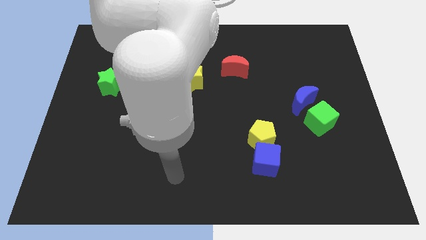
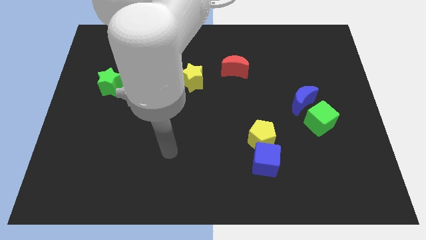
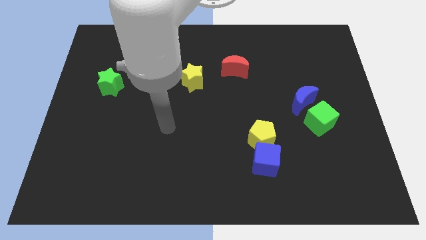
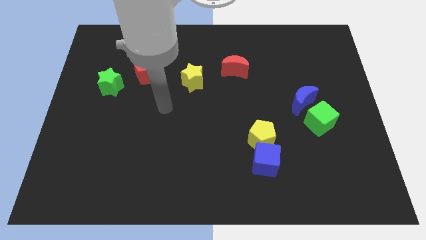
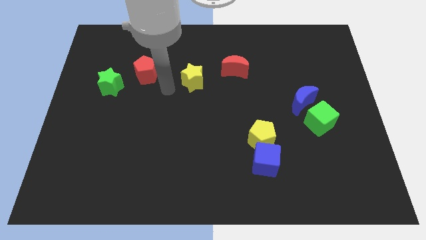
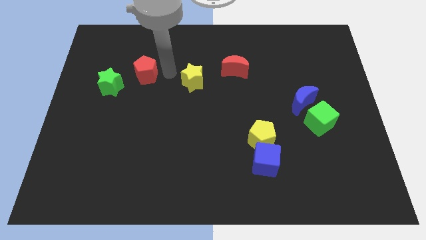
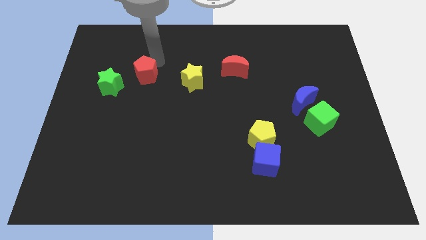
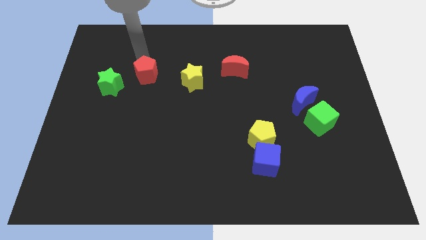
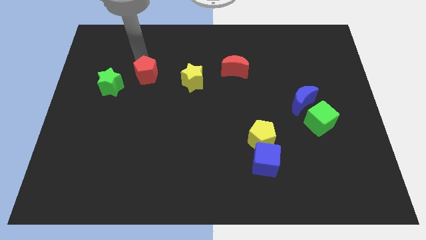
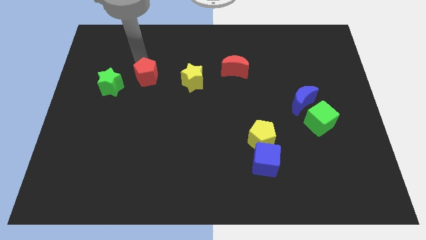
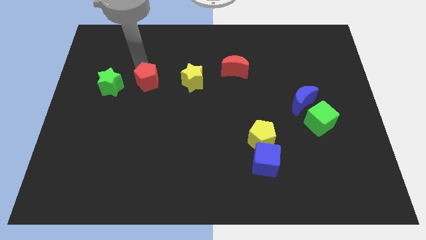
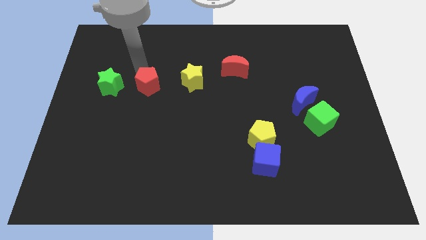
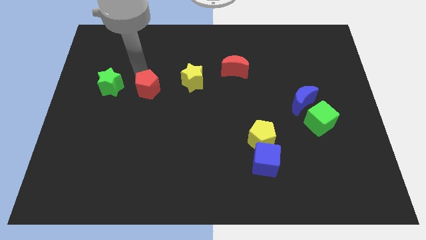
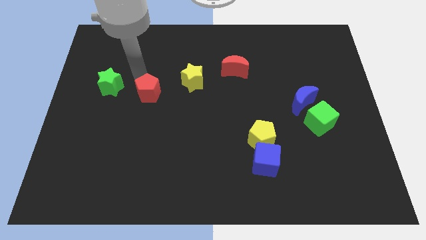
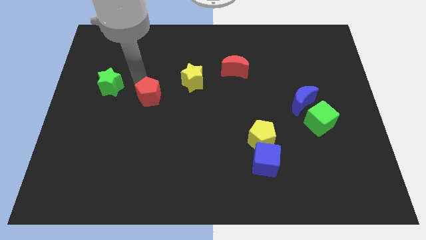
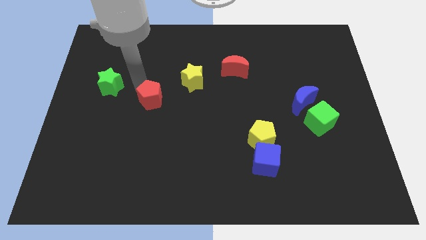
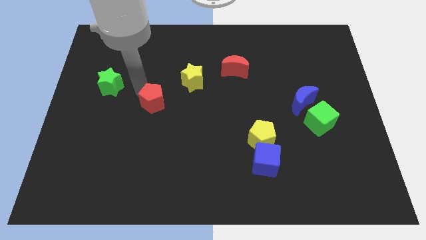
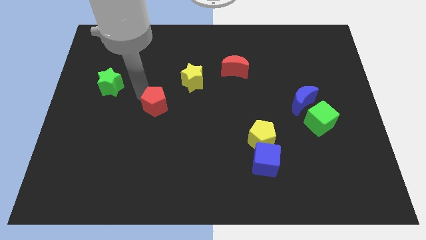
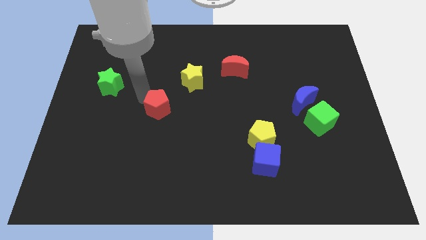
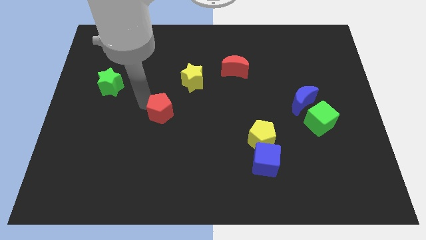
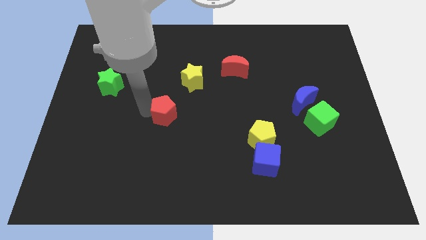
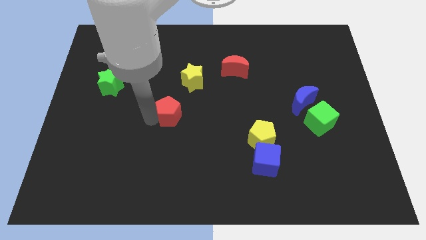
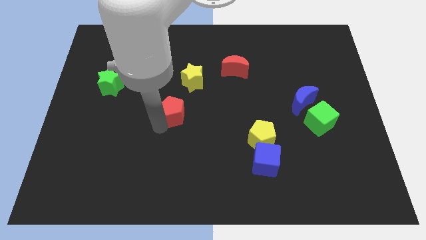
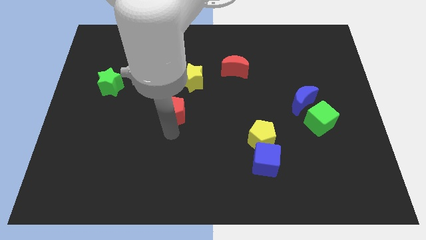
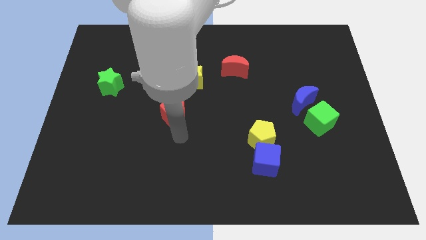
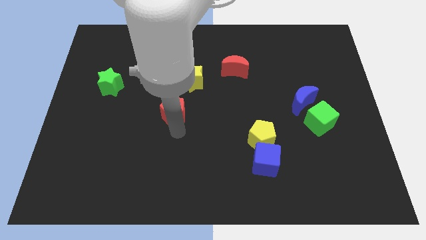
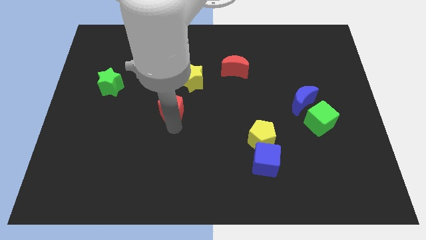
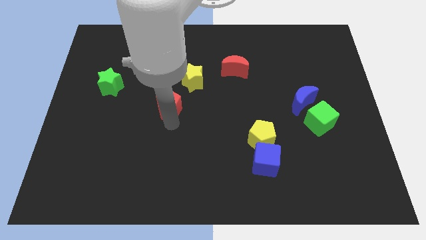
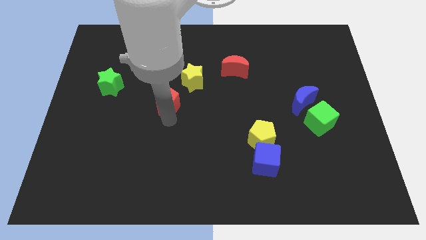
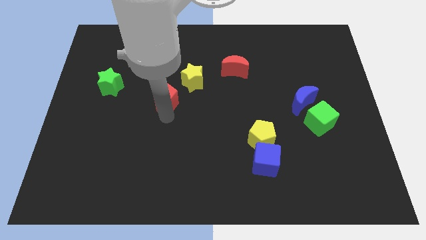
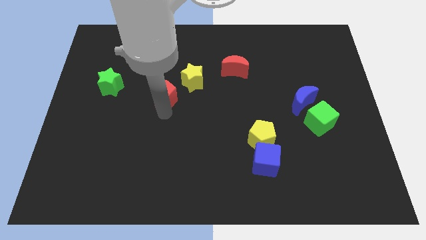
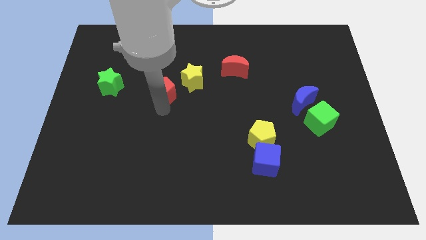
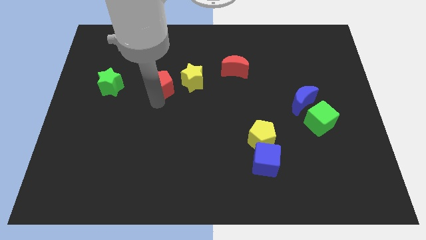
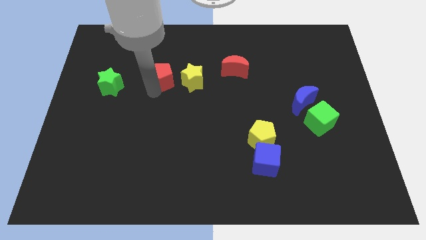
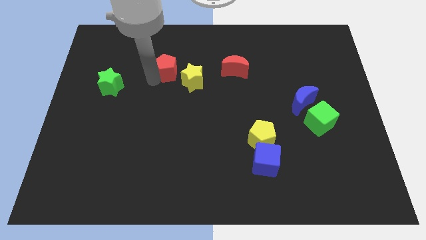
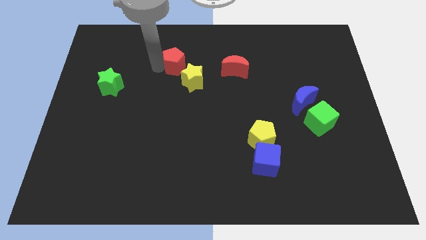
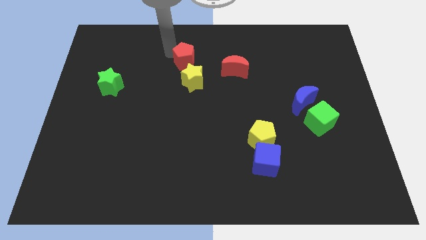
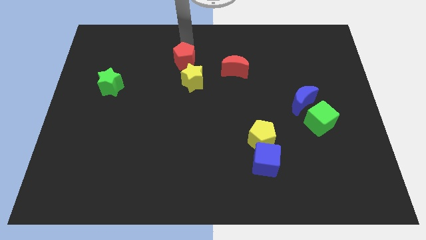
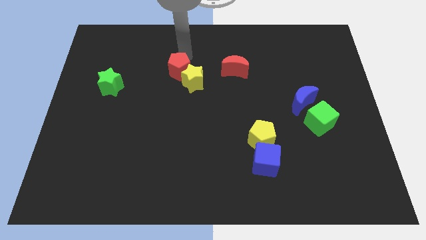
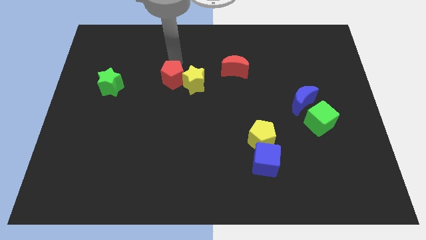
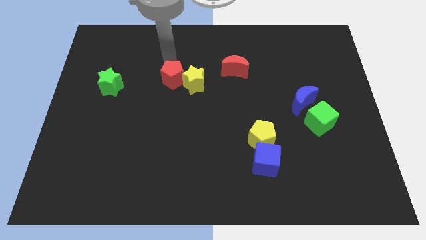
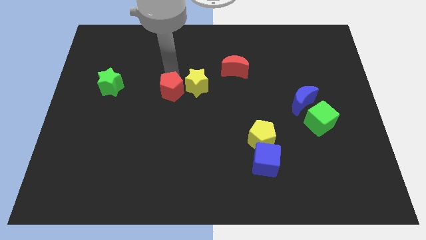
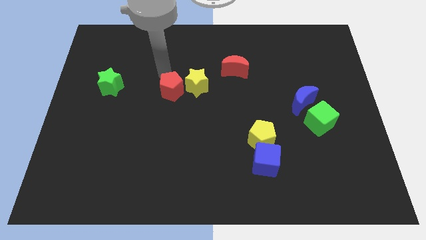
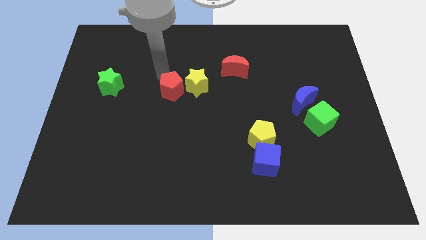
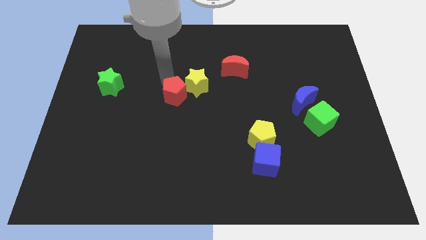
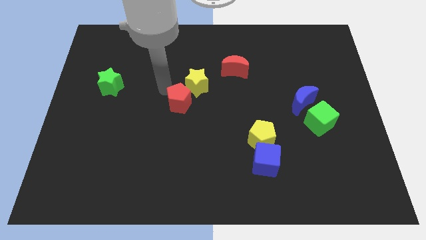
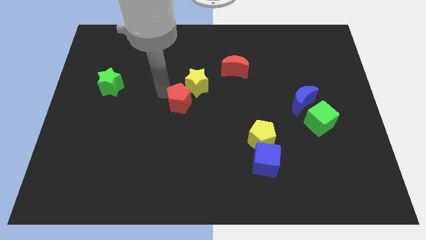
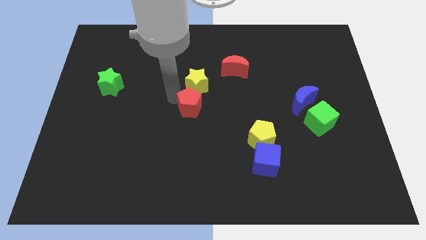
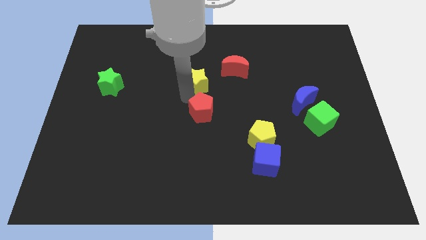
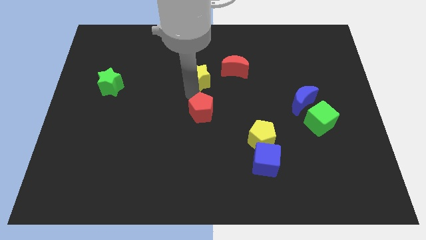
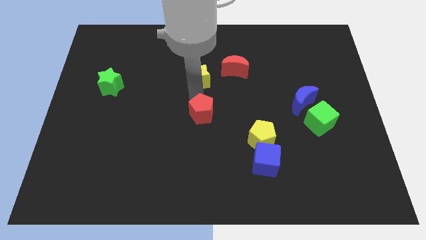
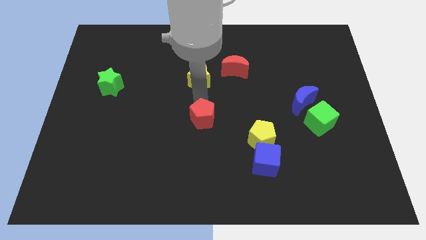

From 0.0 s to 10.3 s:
push the red pentagon down and to the right diagonally

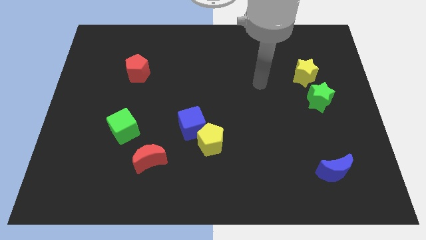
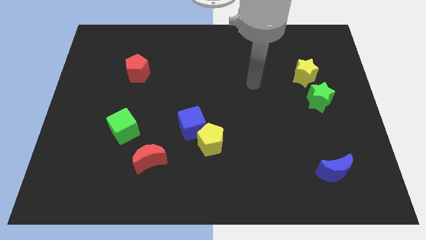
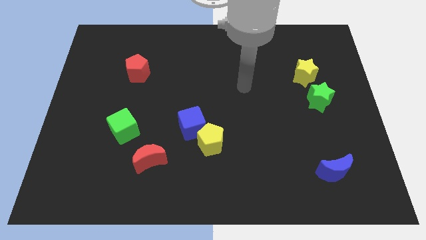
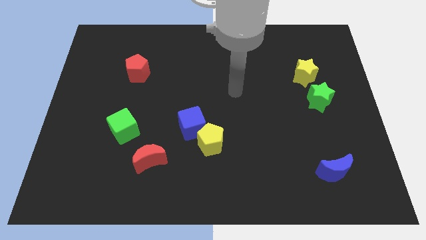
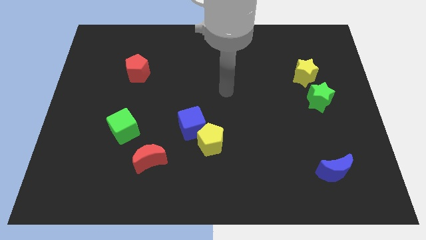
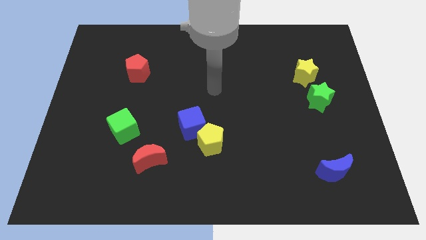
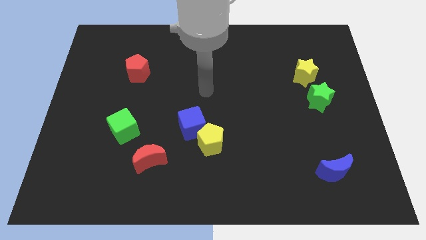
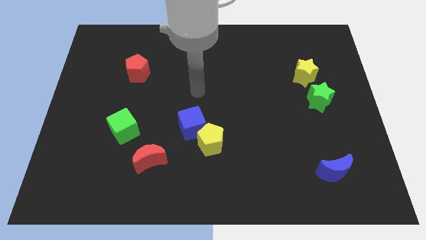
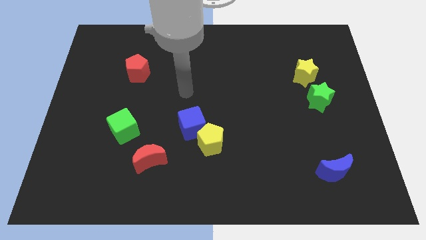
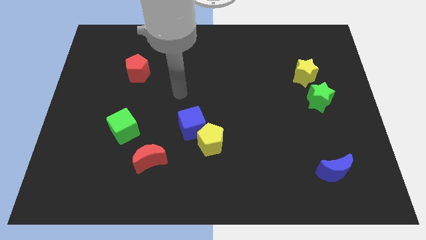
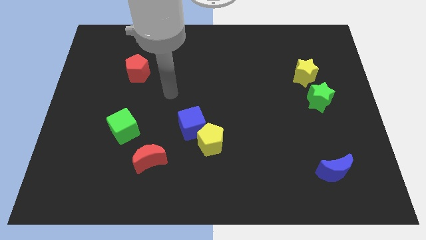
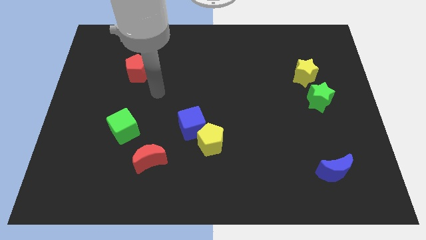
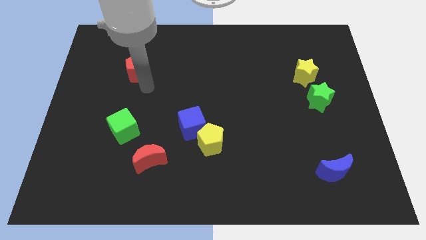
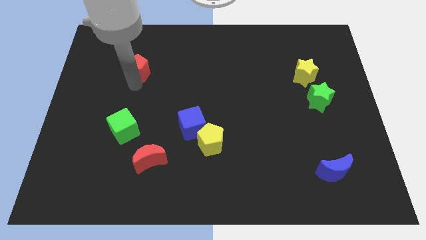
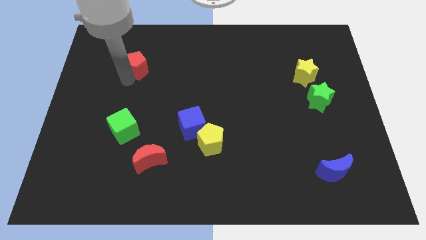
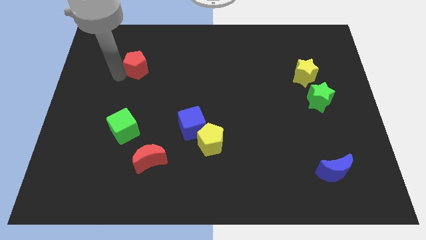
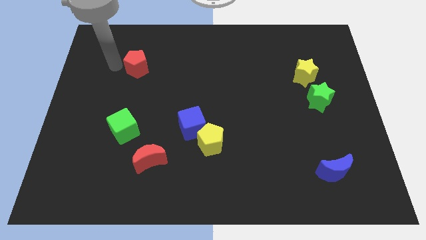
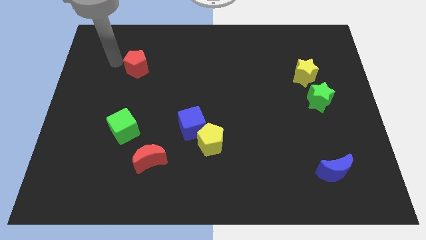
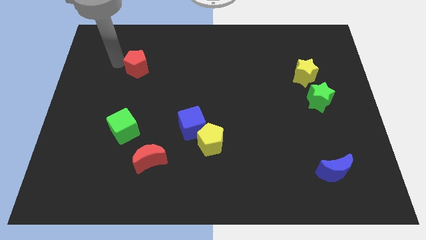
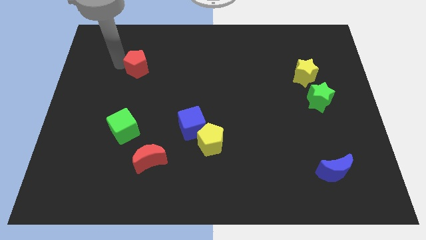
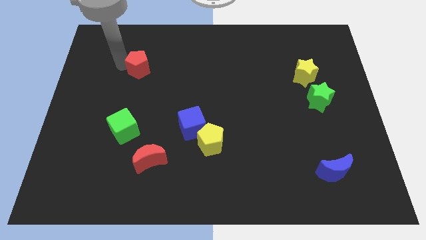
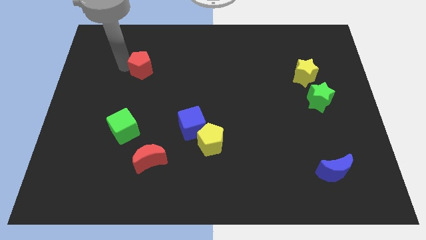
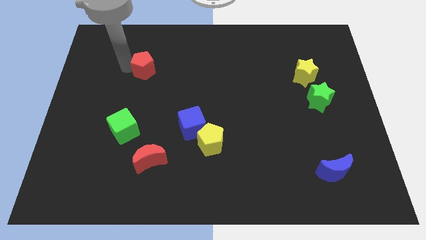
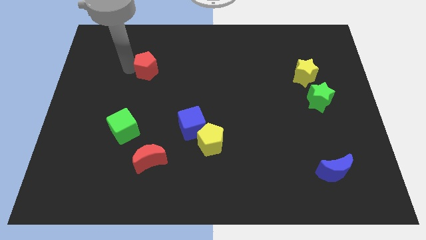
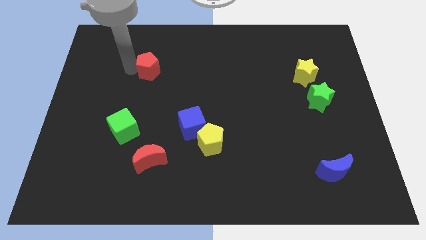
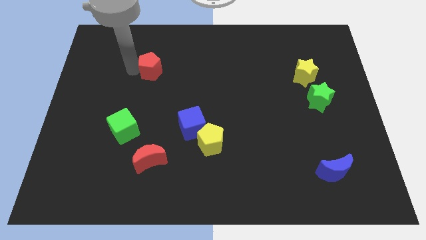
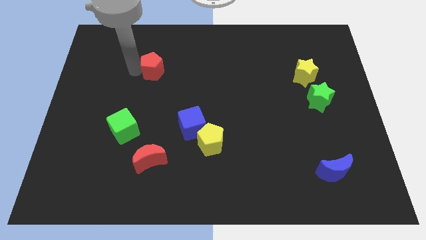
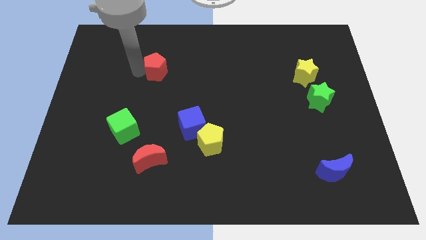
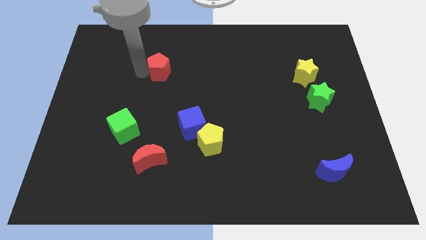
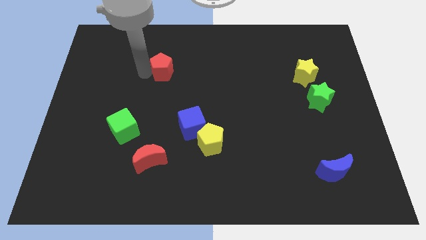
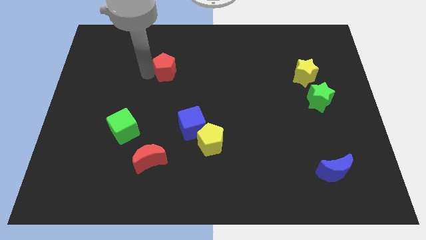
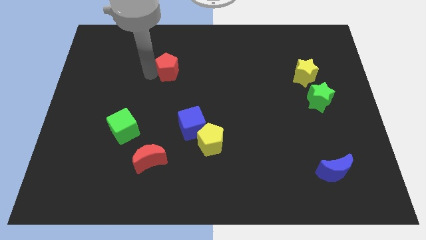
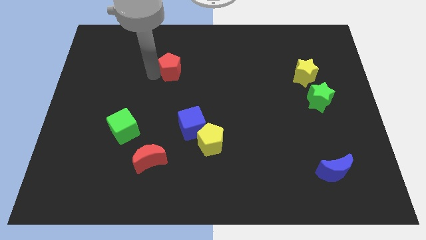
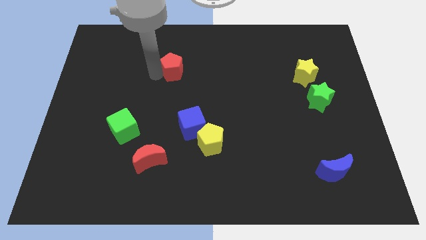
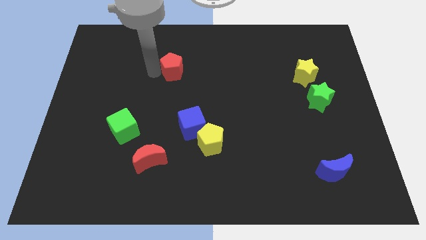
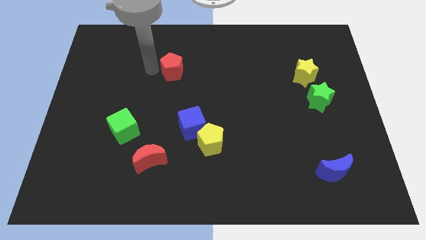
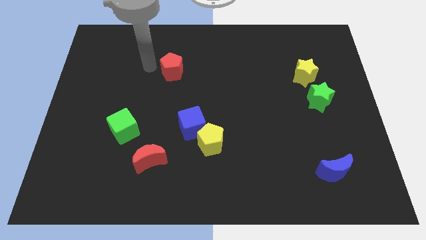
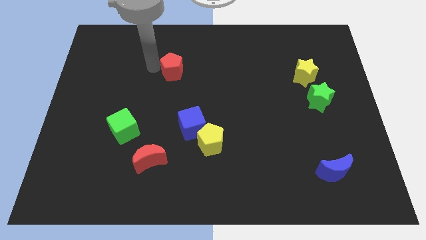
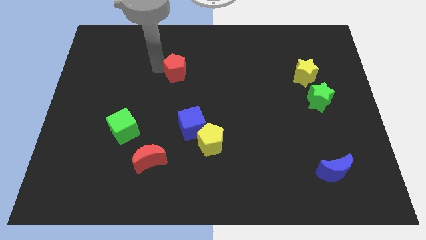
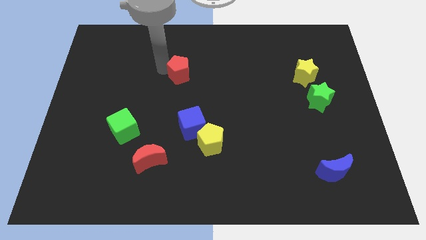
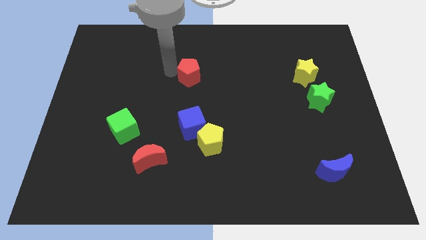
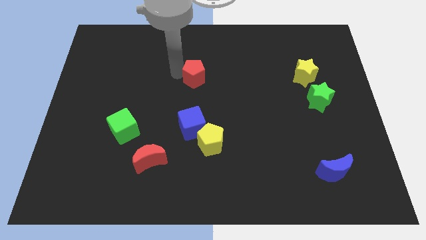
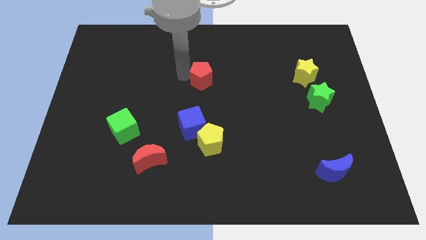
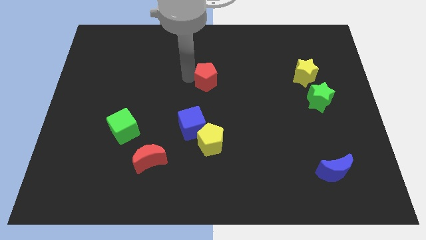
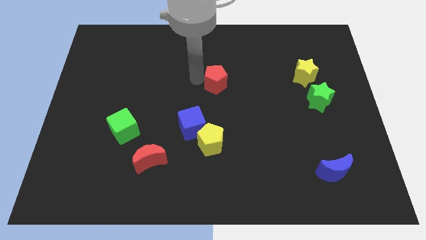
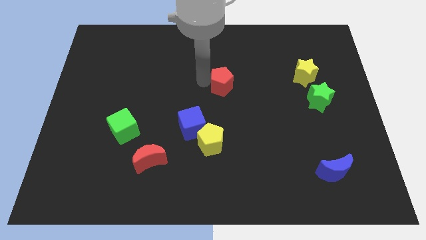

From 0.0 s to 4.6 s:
move the red pentagon to the right
